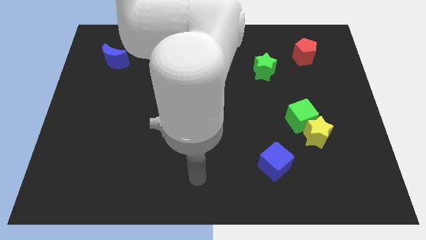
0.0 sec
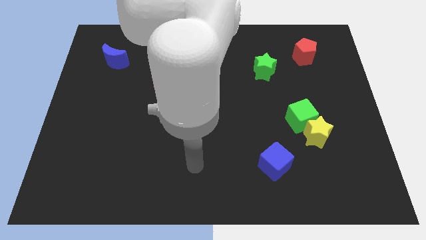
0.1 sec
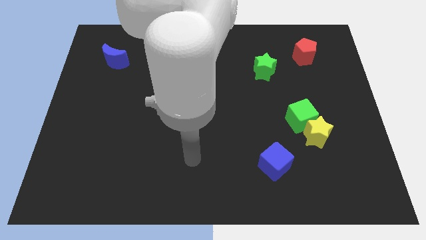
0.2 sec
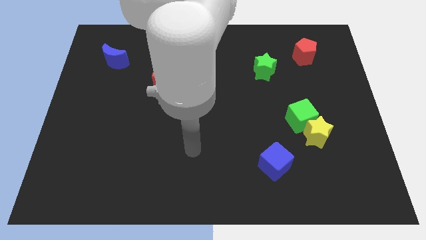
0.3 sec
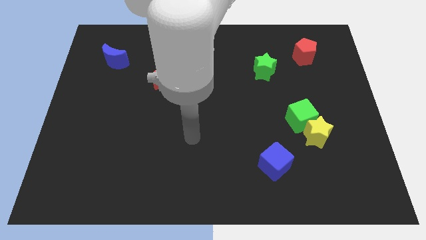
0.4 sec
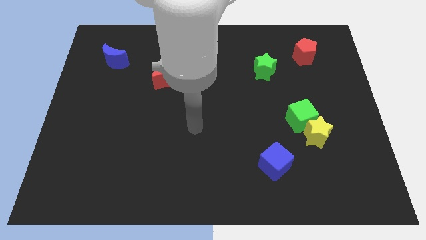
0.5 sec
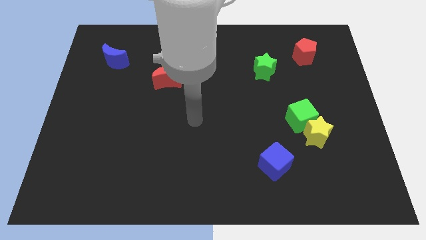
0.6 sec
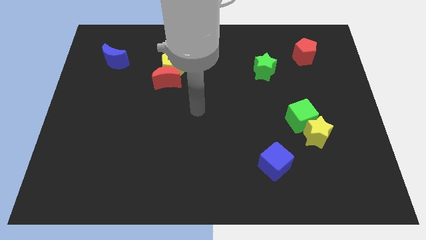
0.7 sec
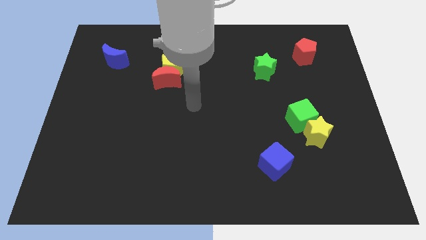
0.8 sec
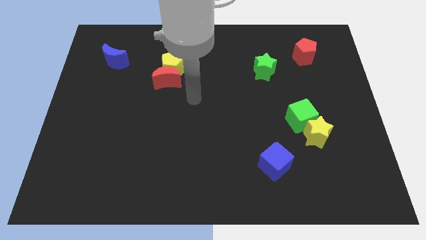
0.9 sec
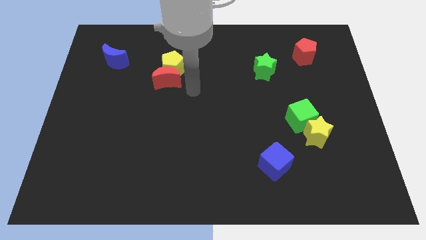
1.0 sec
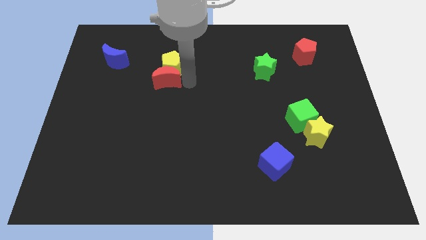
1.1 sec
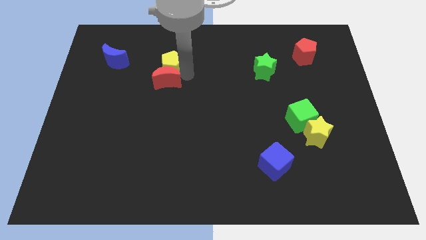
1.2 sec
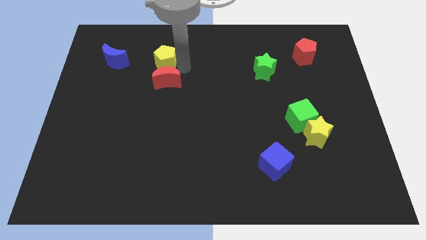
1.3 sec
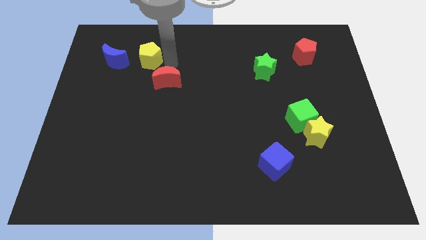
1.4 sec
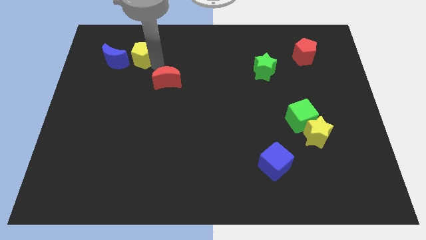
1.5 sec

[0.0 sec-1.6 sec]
move the red moon away from the yellow pentagon

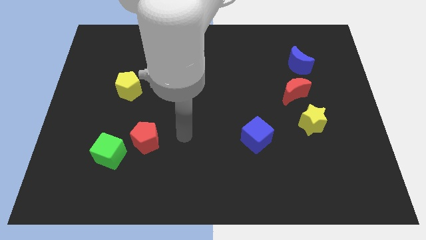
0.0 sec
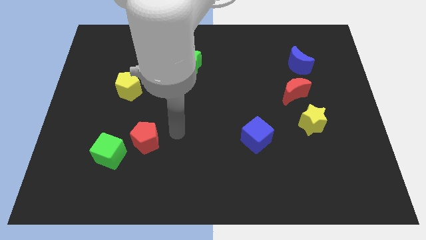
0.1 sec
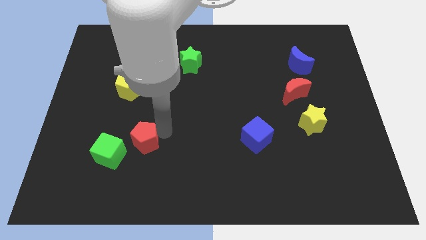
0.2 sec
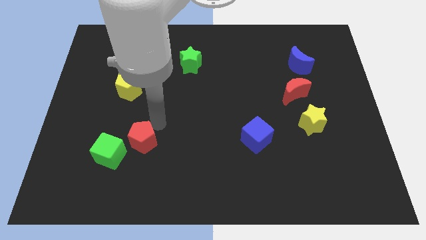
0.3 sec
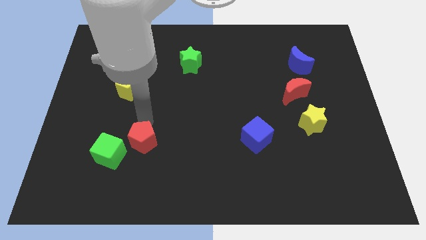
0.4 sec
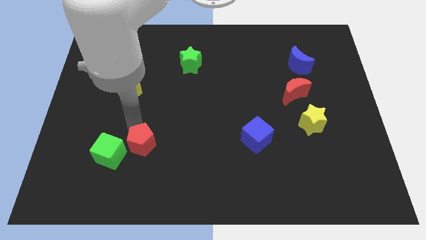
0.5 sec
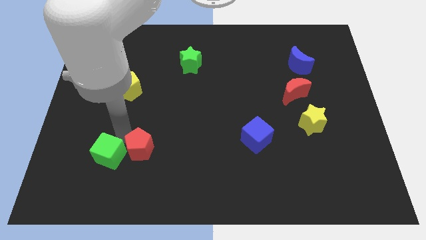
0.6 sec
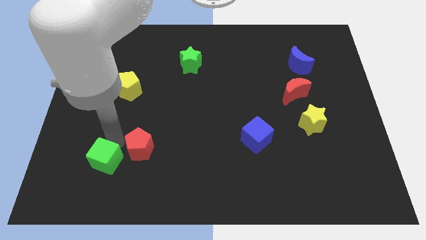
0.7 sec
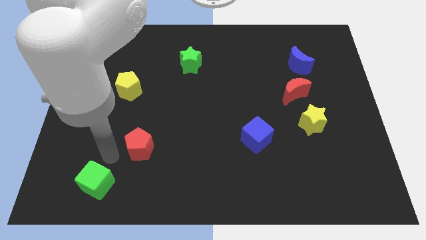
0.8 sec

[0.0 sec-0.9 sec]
pull the red pentagon apart from the green cube

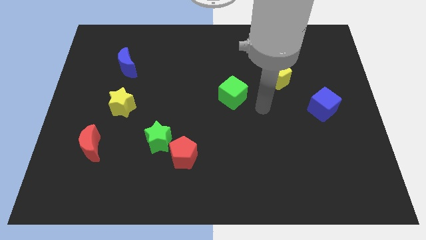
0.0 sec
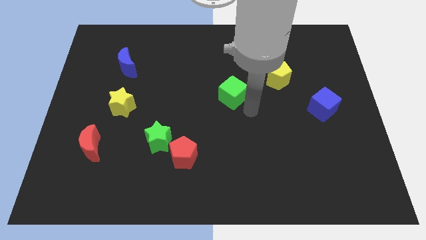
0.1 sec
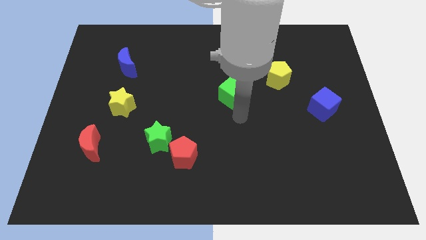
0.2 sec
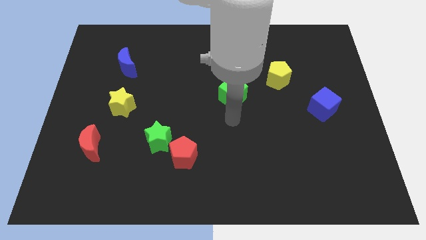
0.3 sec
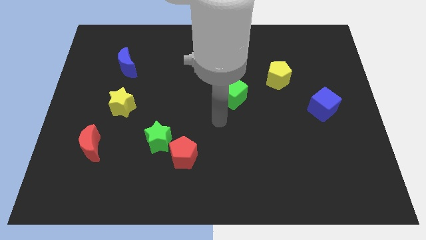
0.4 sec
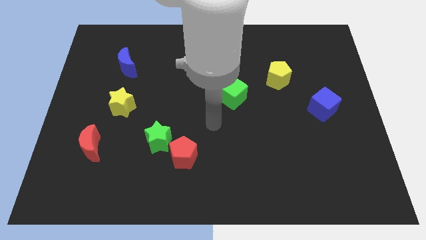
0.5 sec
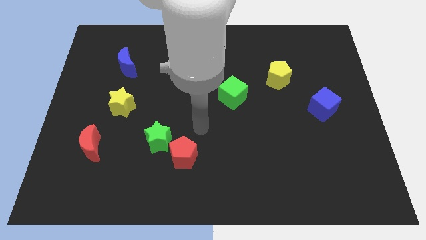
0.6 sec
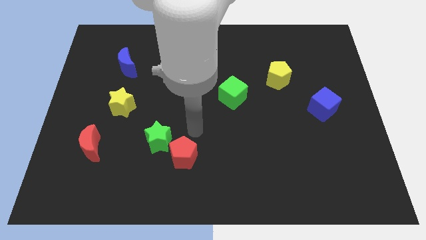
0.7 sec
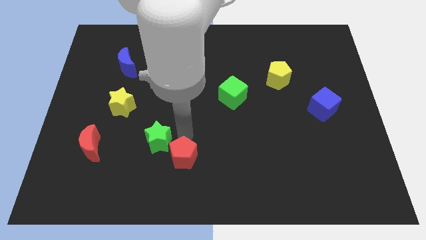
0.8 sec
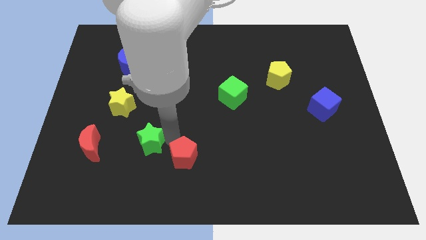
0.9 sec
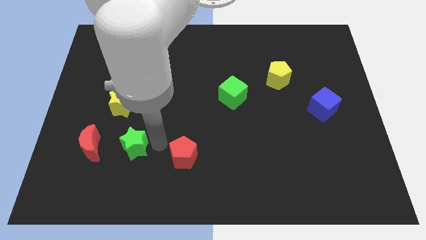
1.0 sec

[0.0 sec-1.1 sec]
move the red pentagon away from the green star

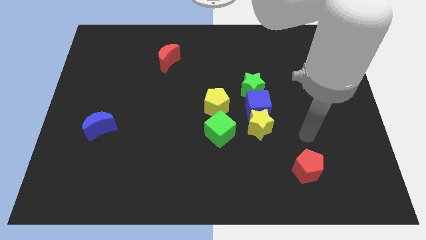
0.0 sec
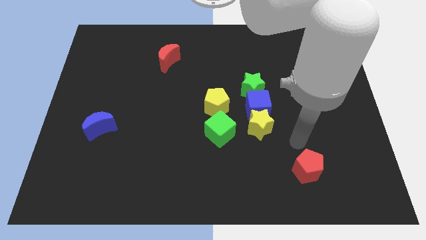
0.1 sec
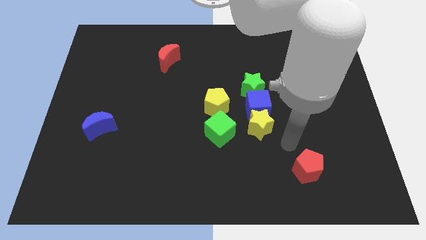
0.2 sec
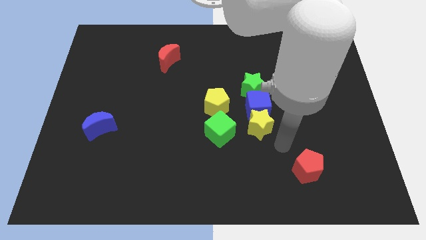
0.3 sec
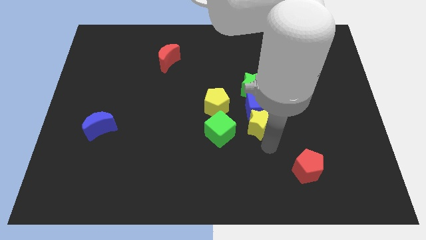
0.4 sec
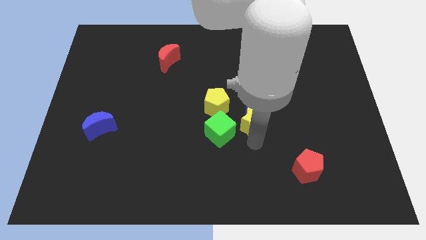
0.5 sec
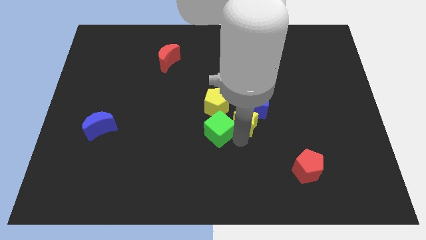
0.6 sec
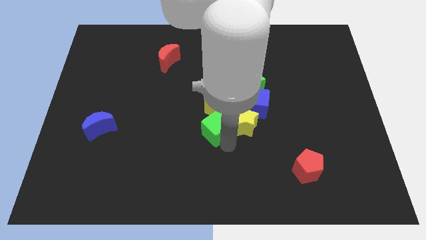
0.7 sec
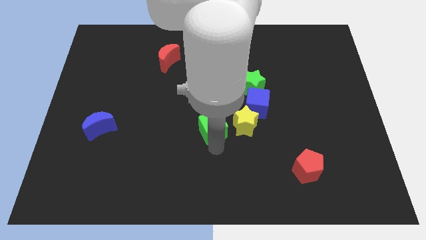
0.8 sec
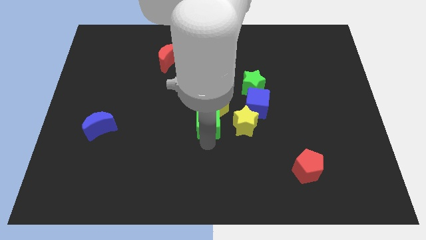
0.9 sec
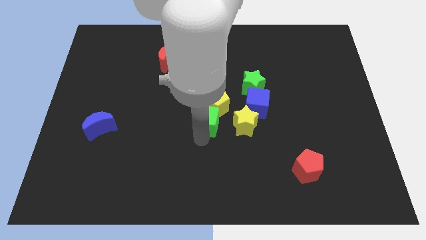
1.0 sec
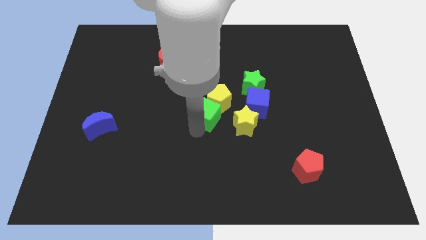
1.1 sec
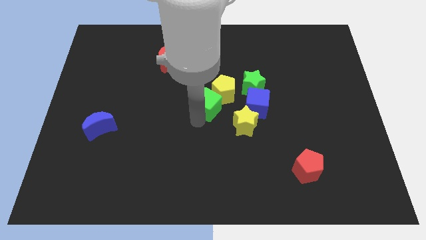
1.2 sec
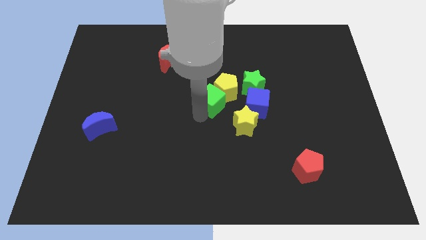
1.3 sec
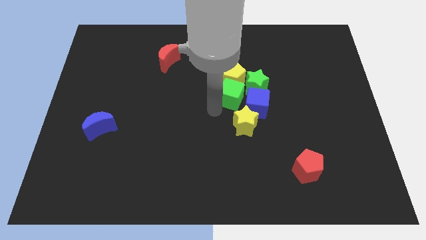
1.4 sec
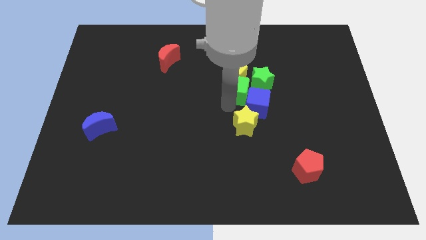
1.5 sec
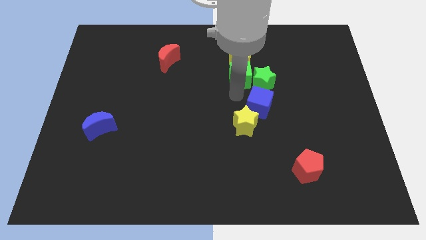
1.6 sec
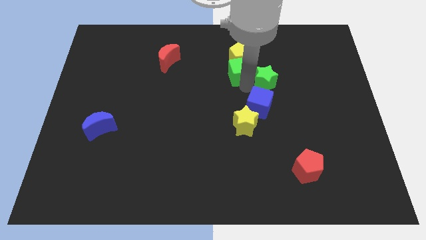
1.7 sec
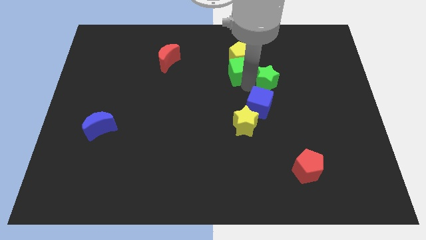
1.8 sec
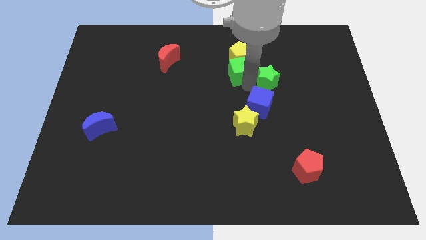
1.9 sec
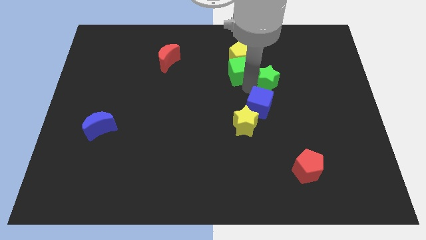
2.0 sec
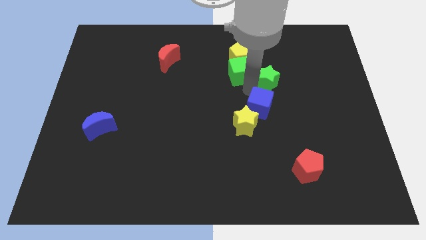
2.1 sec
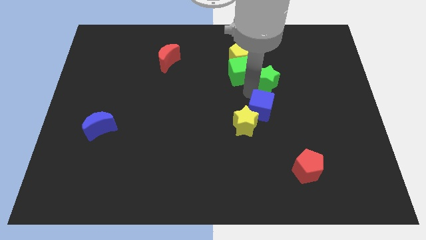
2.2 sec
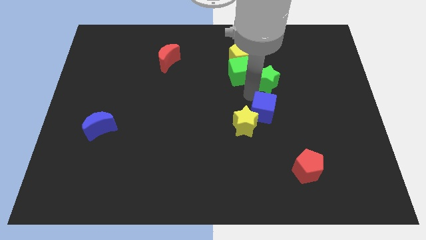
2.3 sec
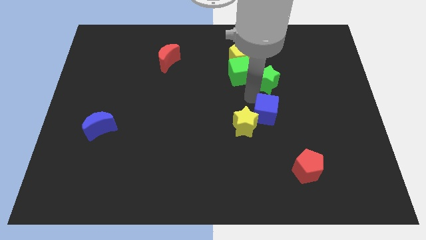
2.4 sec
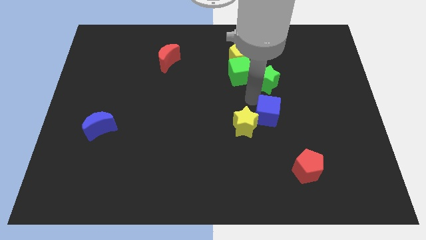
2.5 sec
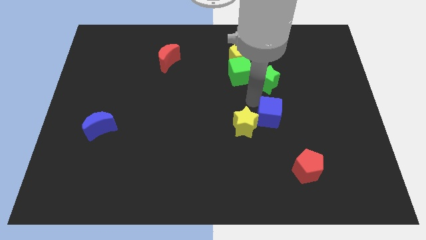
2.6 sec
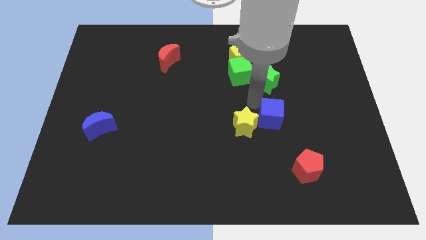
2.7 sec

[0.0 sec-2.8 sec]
separate the blue cube from the group of blocks

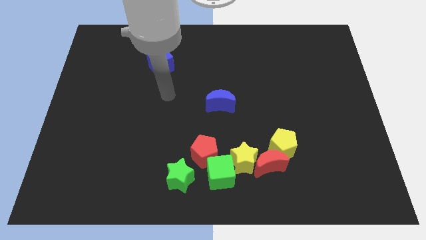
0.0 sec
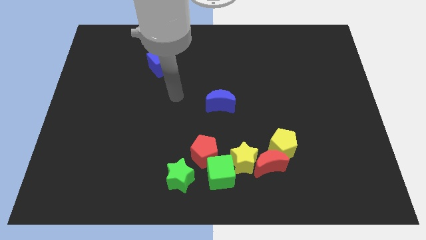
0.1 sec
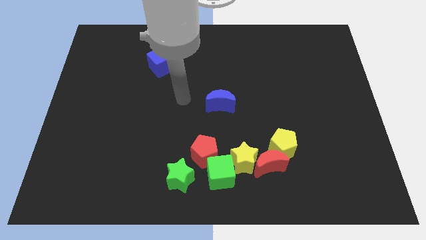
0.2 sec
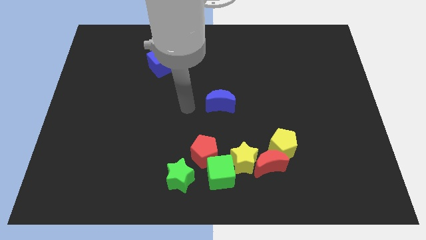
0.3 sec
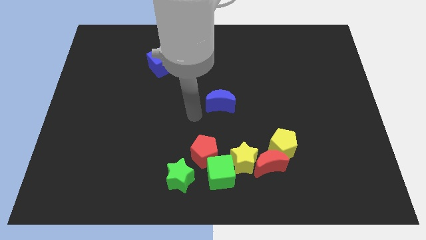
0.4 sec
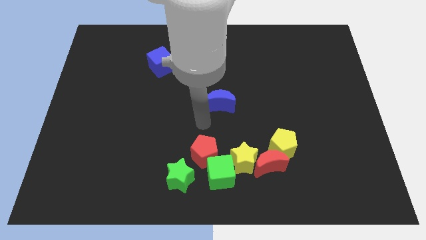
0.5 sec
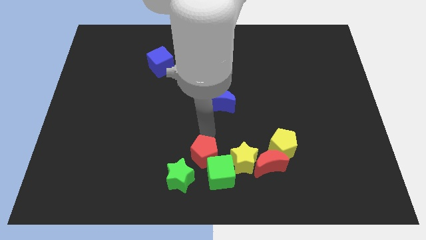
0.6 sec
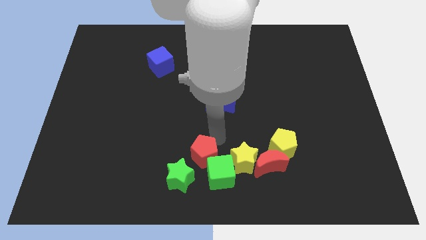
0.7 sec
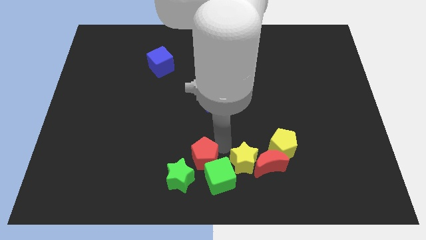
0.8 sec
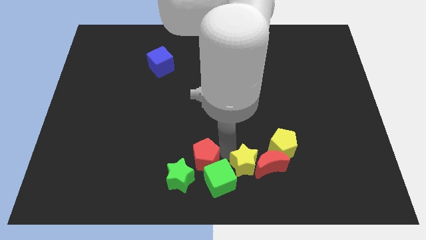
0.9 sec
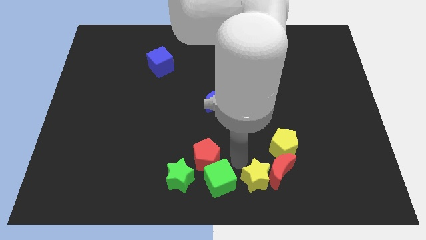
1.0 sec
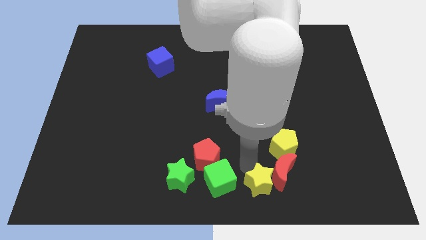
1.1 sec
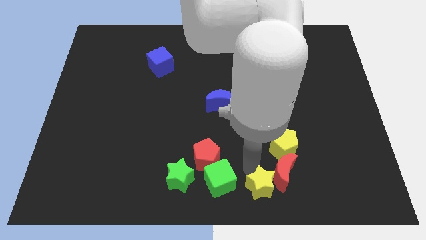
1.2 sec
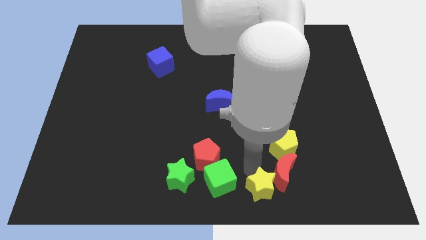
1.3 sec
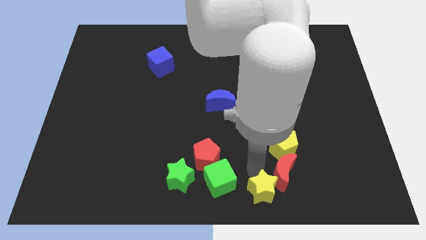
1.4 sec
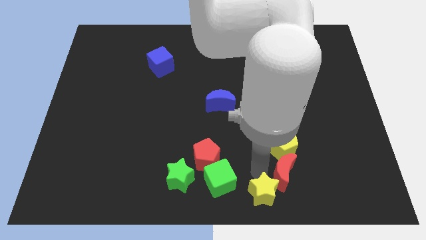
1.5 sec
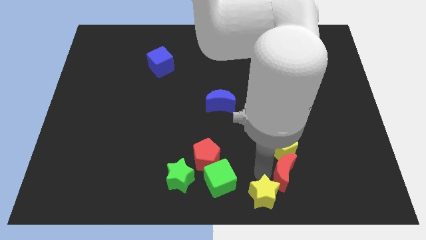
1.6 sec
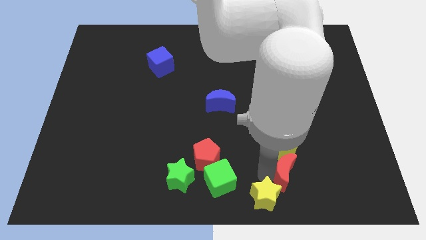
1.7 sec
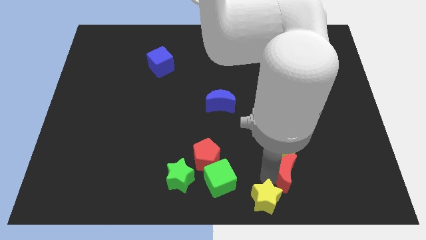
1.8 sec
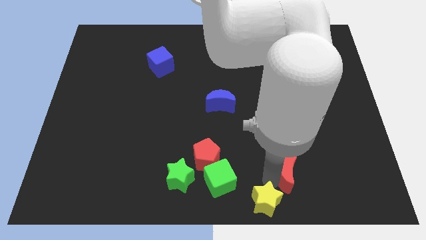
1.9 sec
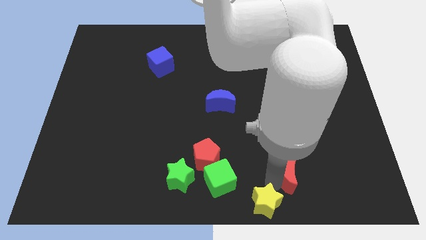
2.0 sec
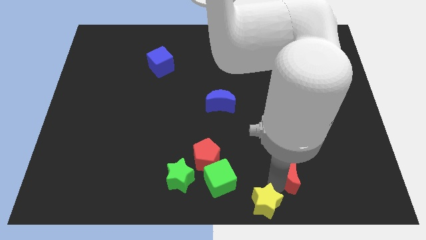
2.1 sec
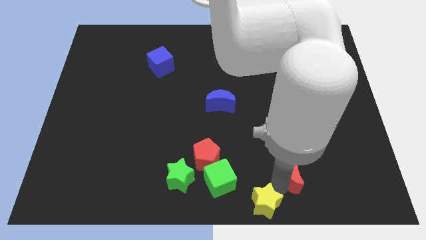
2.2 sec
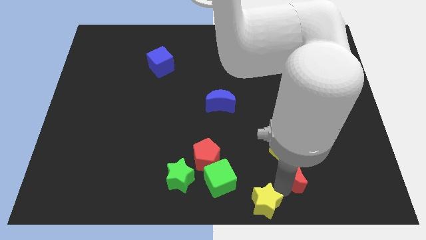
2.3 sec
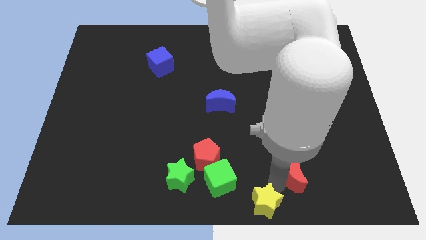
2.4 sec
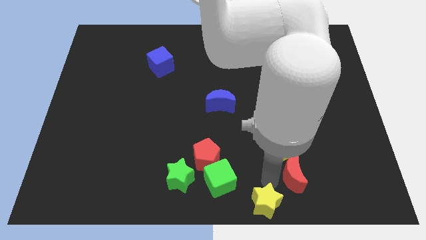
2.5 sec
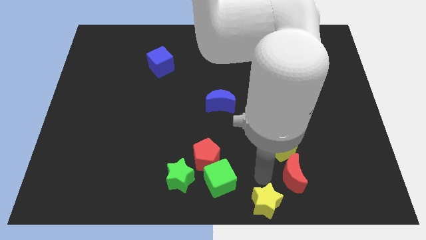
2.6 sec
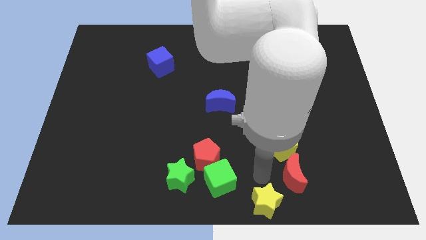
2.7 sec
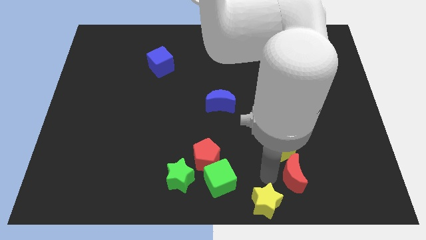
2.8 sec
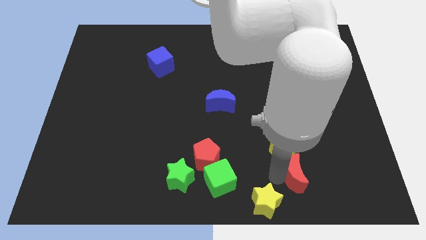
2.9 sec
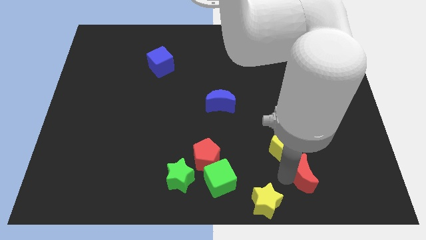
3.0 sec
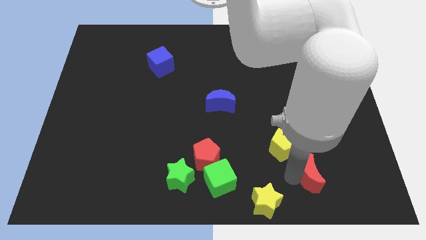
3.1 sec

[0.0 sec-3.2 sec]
separate the red moon from the yellow pentagon, yellow star, and green cube
